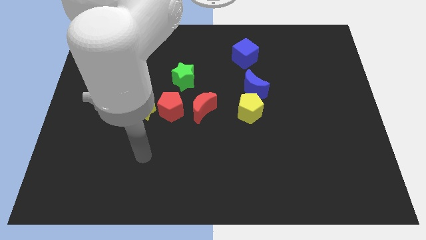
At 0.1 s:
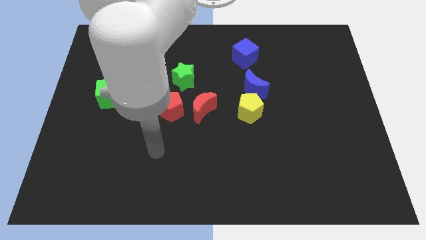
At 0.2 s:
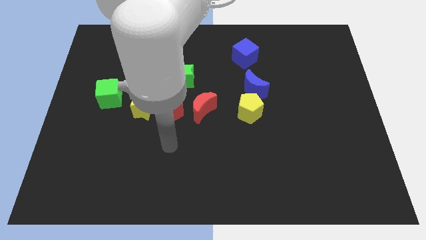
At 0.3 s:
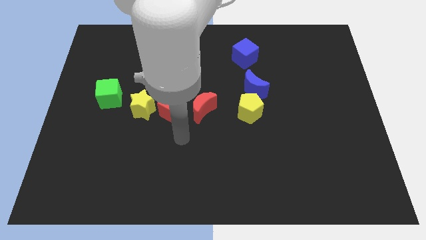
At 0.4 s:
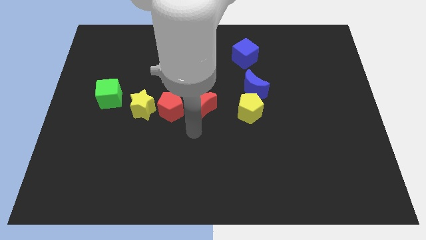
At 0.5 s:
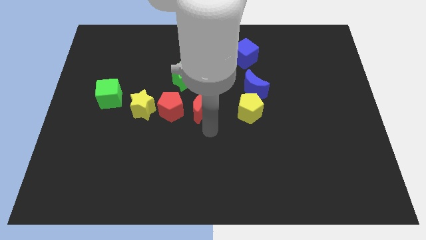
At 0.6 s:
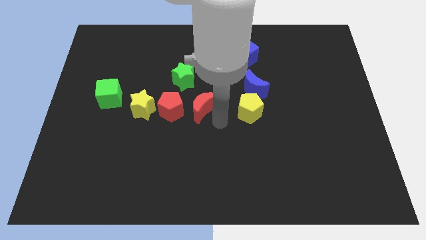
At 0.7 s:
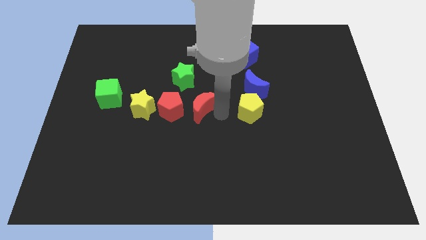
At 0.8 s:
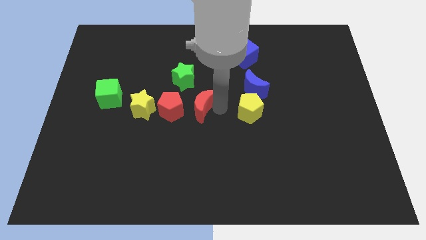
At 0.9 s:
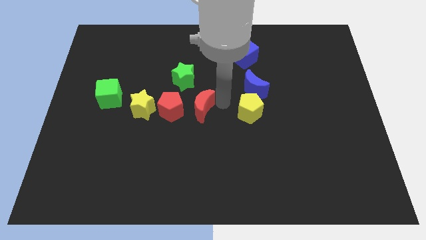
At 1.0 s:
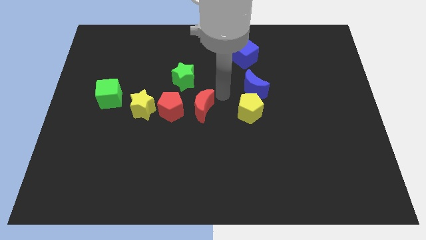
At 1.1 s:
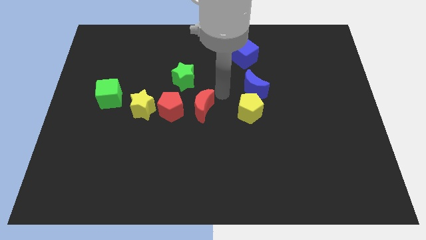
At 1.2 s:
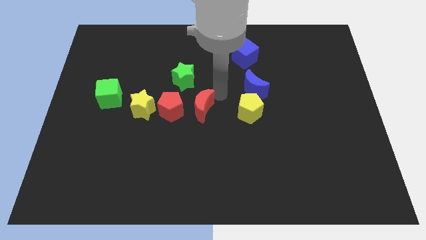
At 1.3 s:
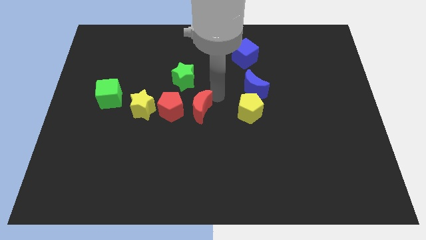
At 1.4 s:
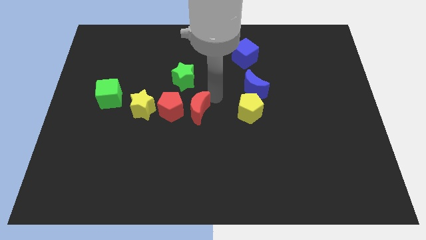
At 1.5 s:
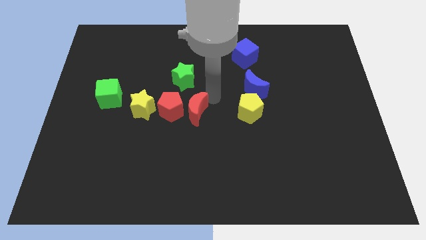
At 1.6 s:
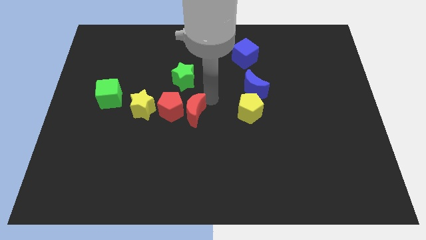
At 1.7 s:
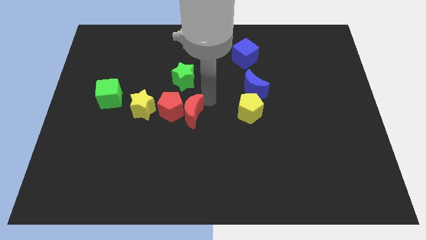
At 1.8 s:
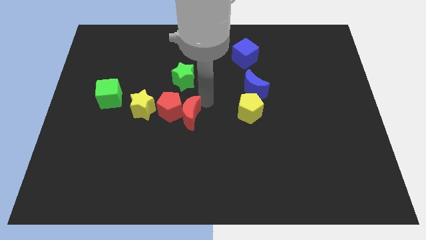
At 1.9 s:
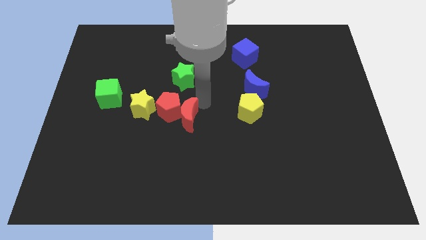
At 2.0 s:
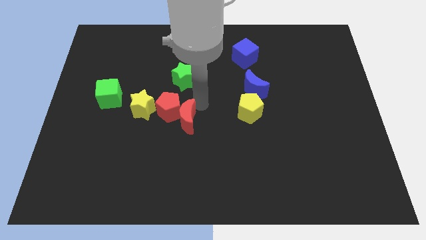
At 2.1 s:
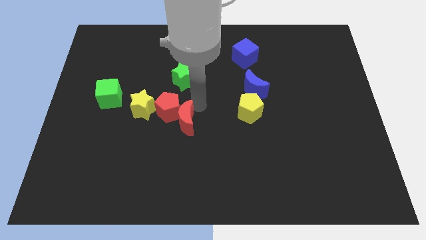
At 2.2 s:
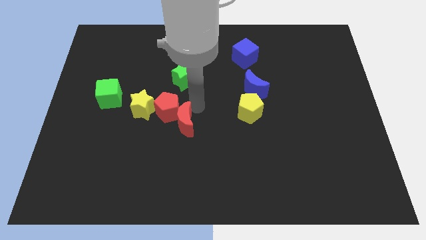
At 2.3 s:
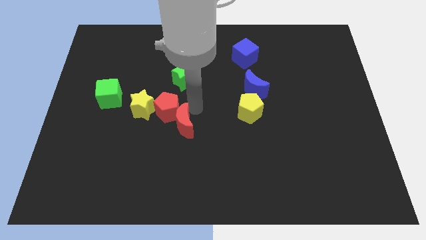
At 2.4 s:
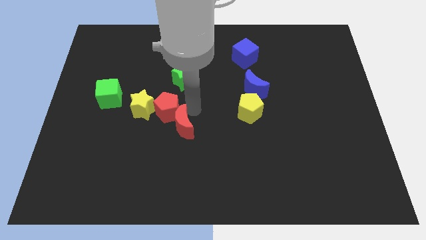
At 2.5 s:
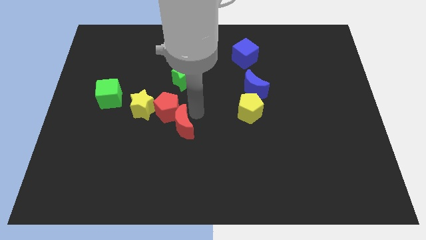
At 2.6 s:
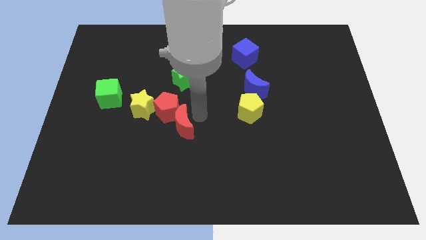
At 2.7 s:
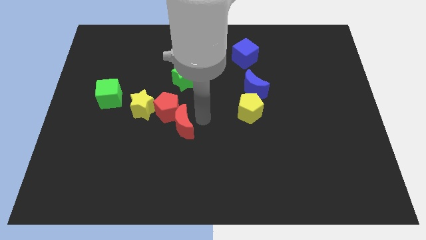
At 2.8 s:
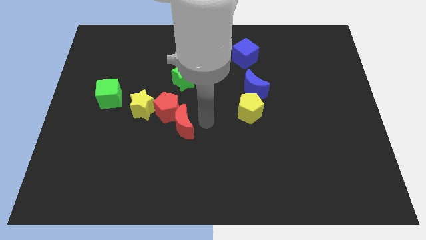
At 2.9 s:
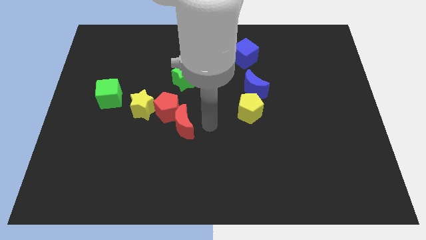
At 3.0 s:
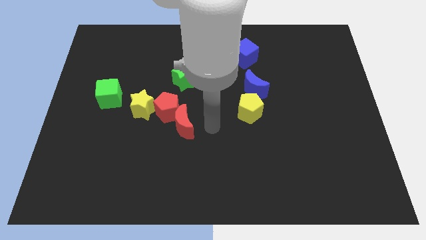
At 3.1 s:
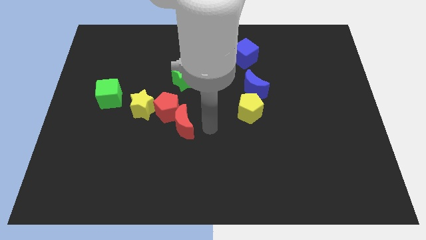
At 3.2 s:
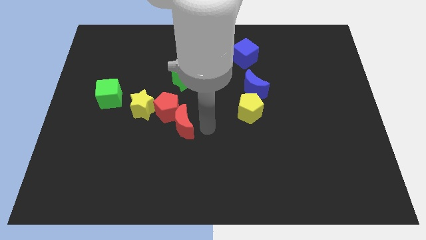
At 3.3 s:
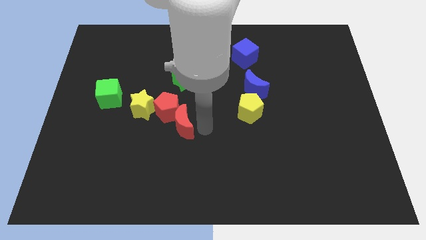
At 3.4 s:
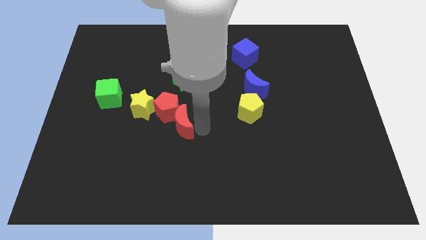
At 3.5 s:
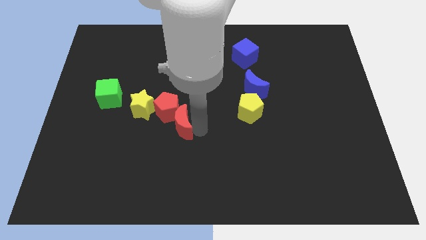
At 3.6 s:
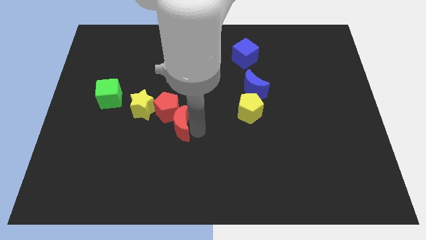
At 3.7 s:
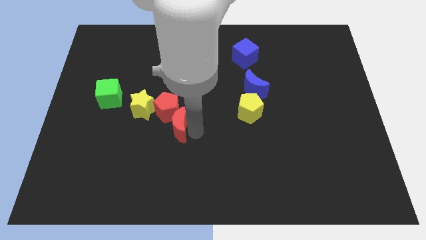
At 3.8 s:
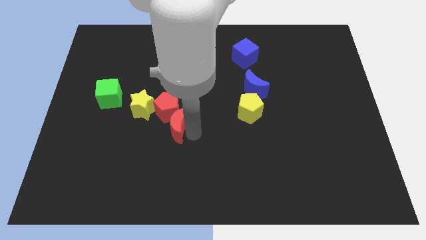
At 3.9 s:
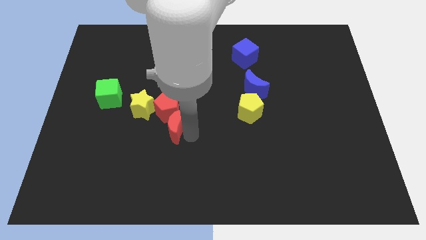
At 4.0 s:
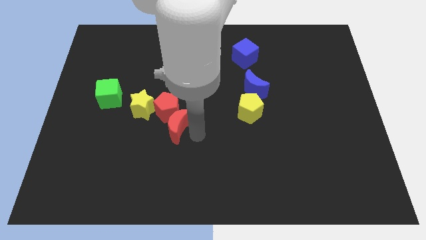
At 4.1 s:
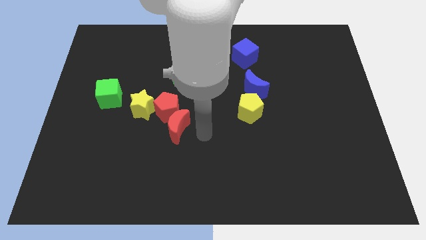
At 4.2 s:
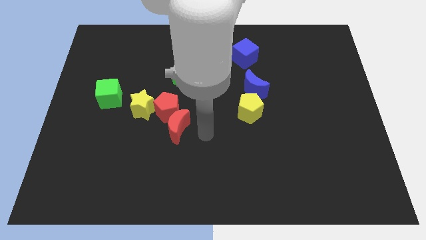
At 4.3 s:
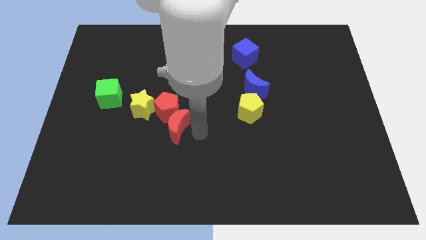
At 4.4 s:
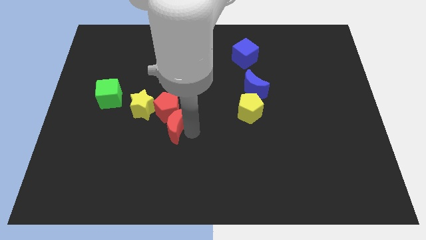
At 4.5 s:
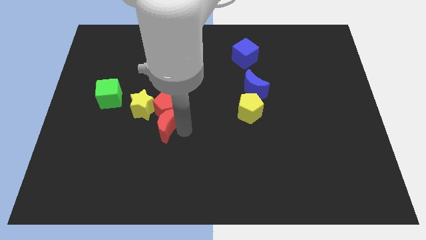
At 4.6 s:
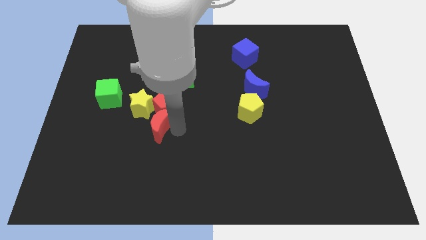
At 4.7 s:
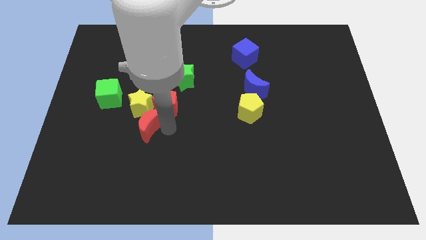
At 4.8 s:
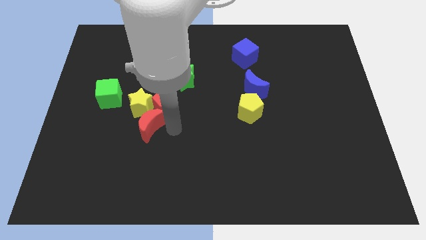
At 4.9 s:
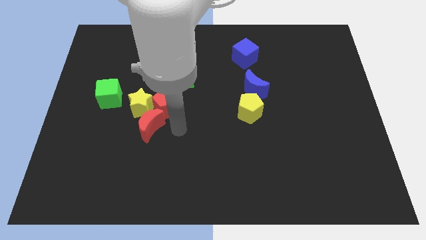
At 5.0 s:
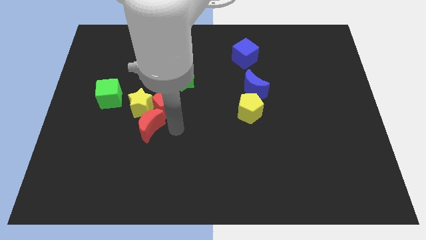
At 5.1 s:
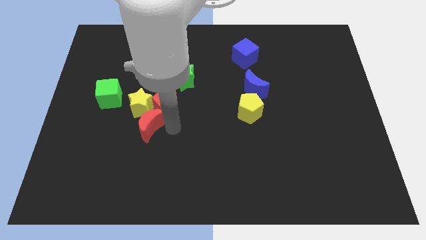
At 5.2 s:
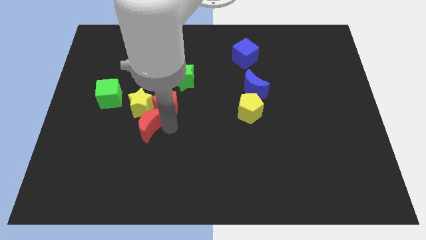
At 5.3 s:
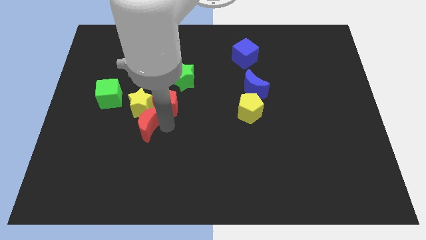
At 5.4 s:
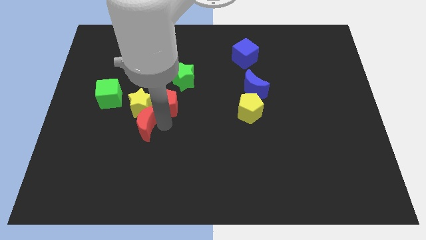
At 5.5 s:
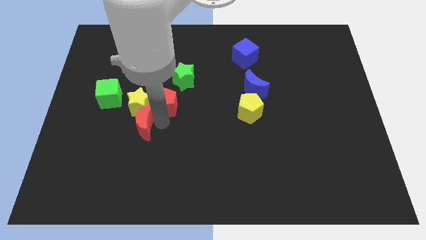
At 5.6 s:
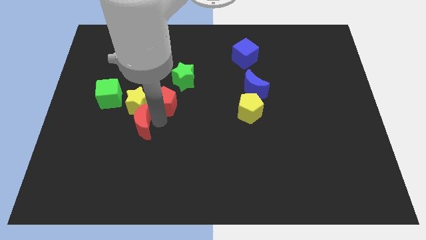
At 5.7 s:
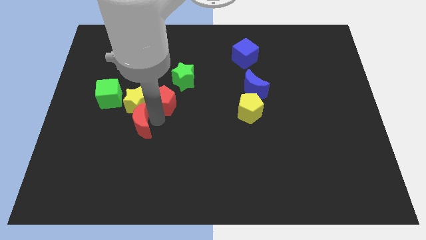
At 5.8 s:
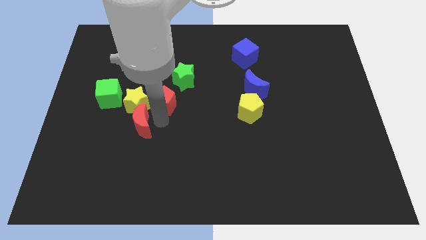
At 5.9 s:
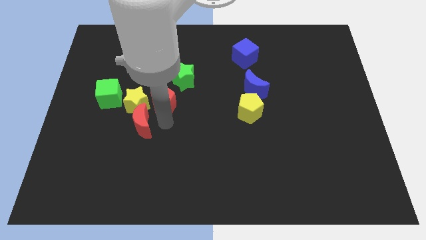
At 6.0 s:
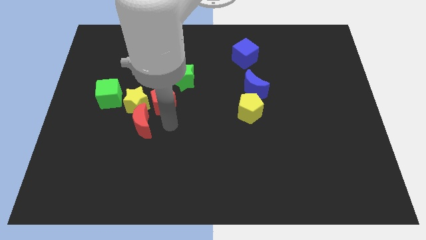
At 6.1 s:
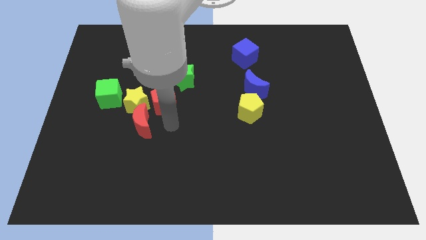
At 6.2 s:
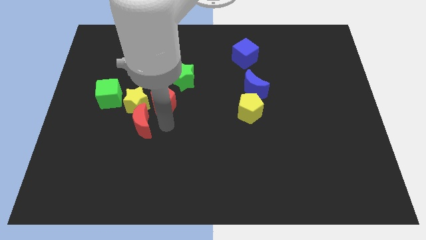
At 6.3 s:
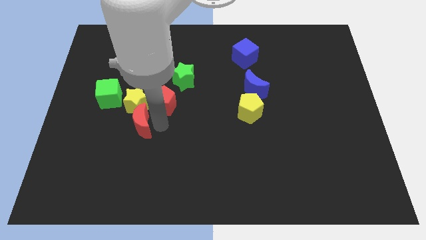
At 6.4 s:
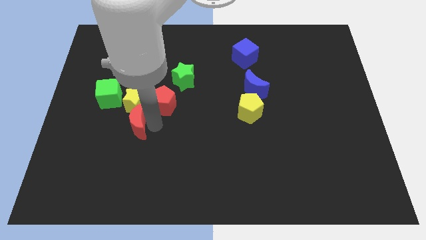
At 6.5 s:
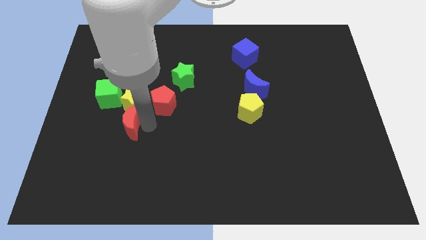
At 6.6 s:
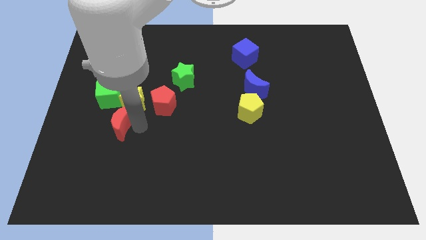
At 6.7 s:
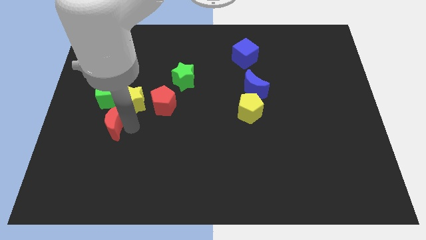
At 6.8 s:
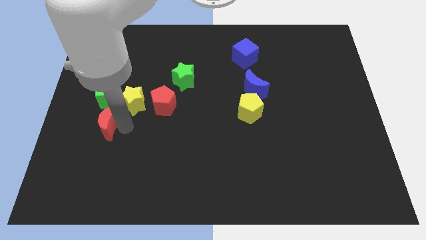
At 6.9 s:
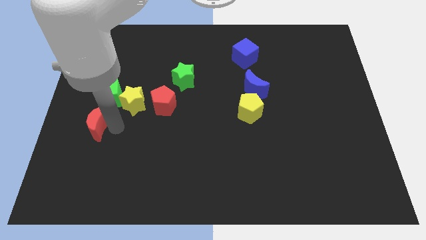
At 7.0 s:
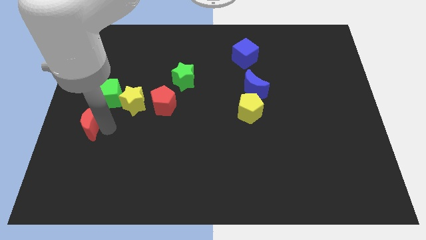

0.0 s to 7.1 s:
move the red moon to the left side
